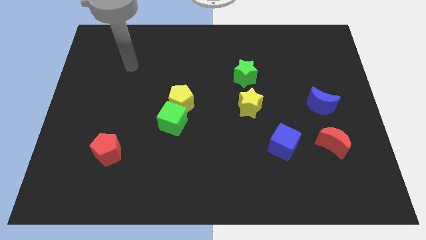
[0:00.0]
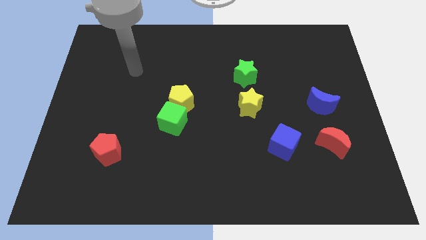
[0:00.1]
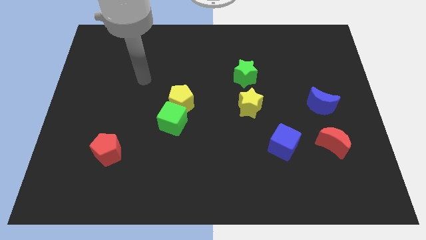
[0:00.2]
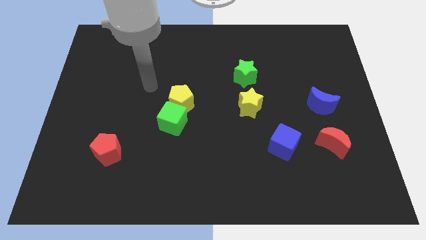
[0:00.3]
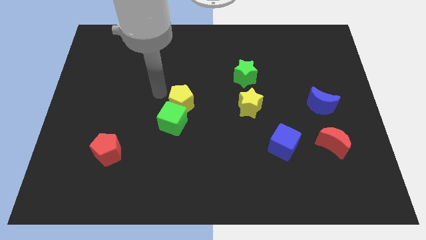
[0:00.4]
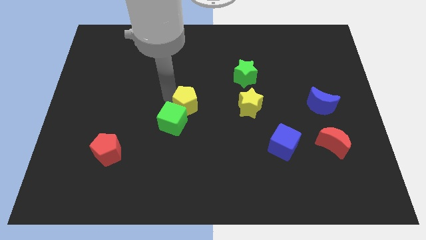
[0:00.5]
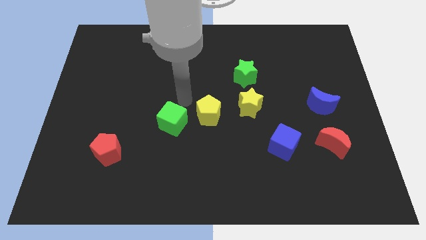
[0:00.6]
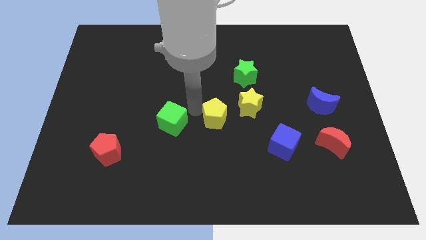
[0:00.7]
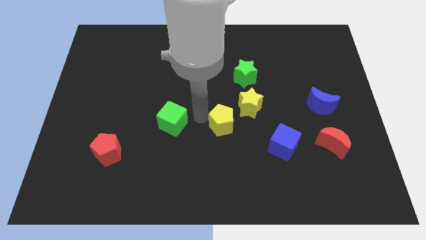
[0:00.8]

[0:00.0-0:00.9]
move the green cube away from the yellow pentagon

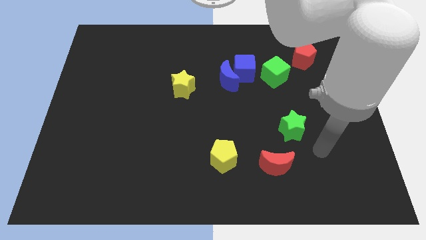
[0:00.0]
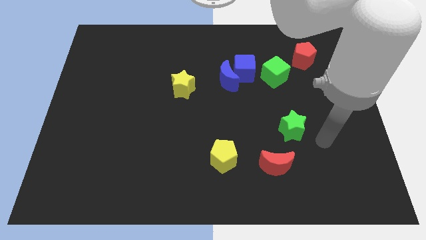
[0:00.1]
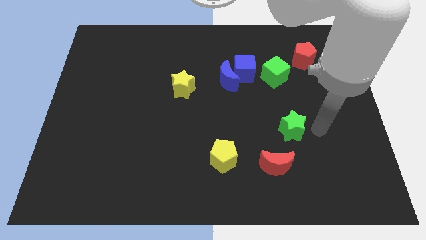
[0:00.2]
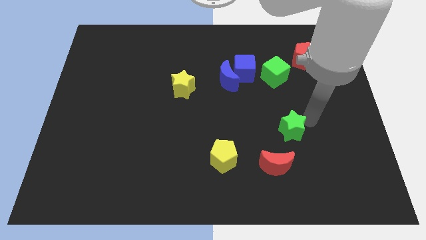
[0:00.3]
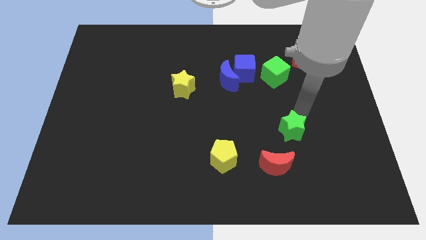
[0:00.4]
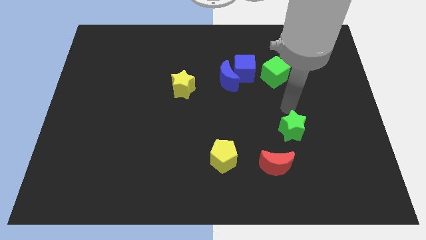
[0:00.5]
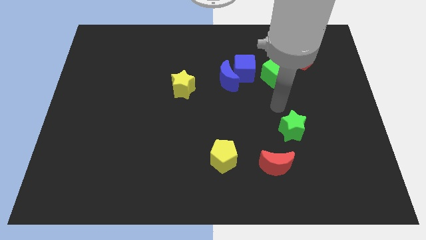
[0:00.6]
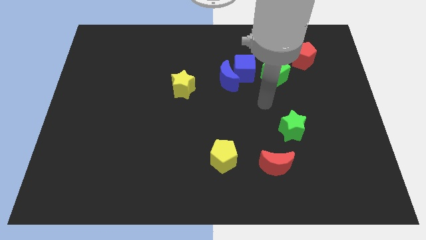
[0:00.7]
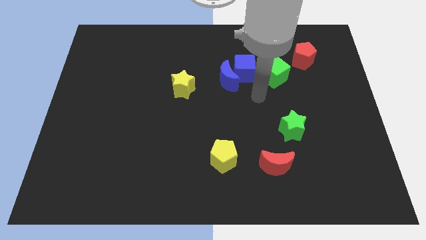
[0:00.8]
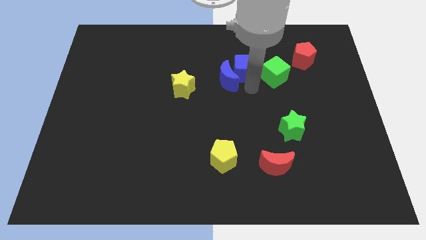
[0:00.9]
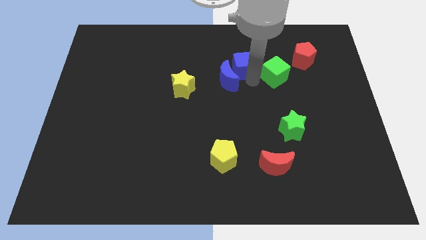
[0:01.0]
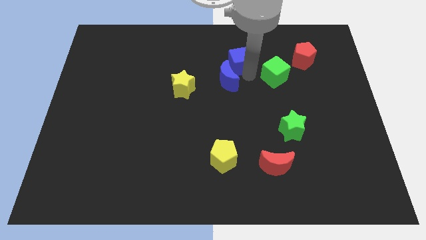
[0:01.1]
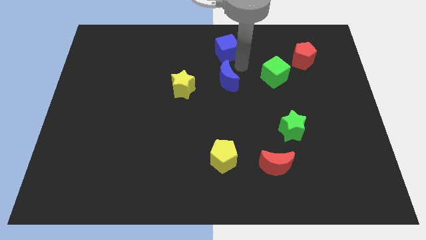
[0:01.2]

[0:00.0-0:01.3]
move the blue moon away from the blue cube

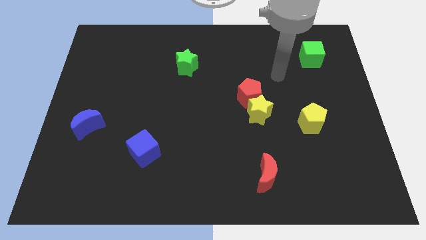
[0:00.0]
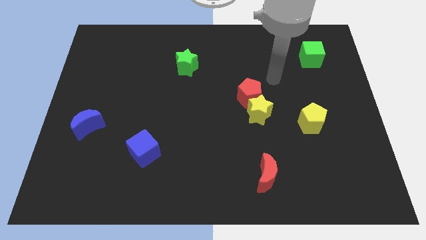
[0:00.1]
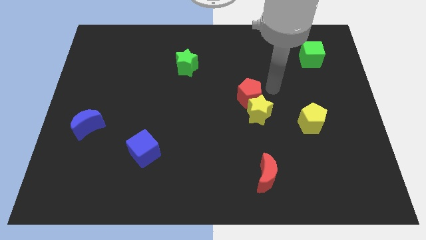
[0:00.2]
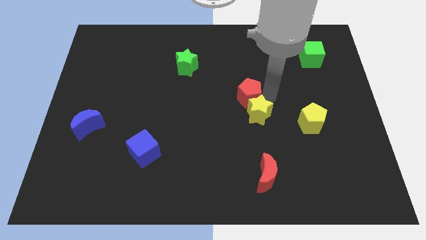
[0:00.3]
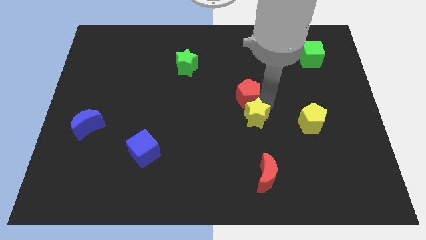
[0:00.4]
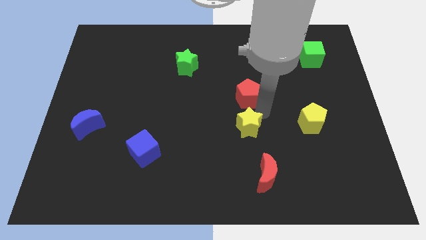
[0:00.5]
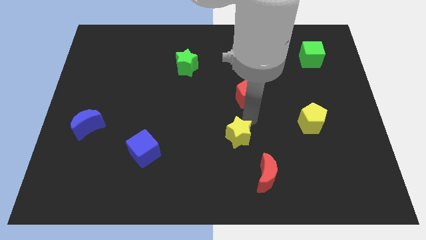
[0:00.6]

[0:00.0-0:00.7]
move the red pentagon away from the yellow star

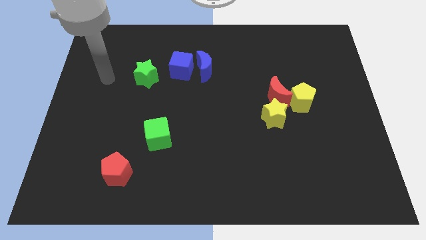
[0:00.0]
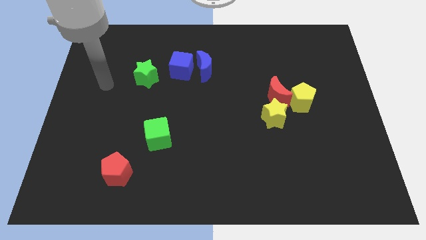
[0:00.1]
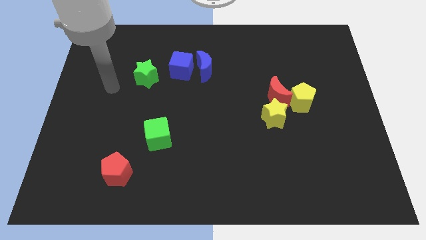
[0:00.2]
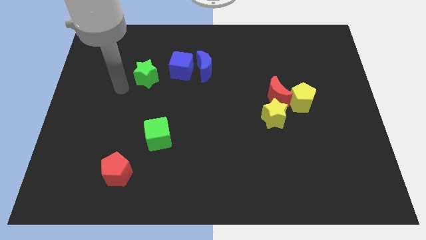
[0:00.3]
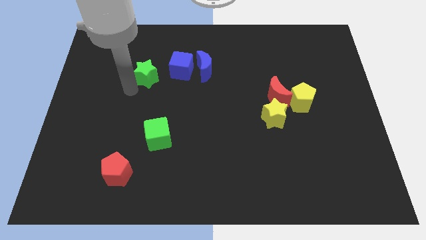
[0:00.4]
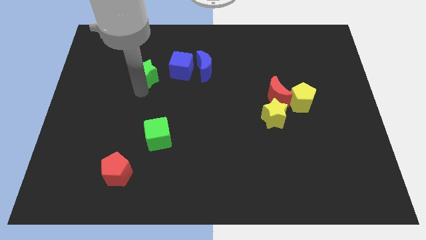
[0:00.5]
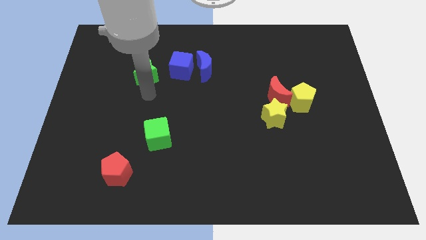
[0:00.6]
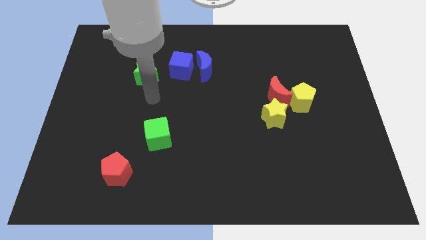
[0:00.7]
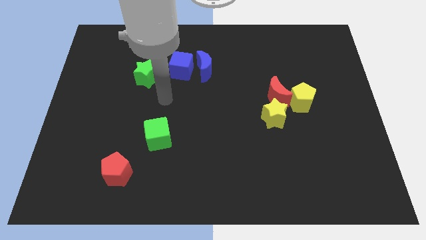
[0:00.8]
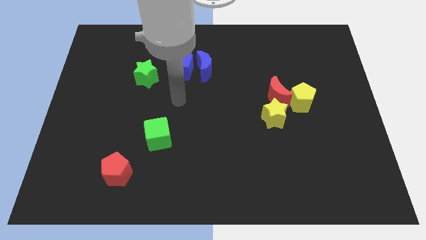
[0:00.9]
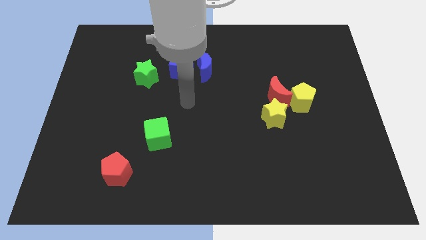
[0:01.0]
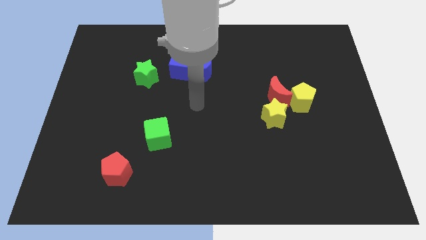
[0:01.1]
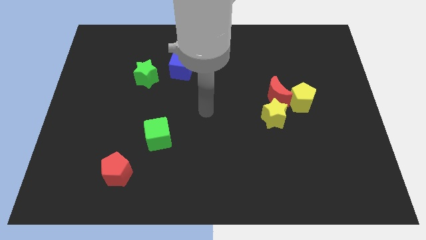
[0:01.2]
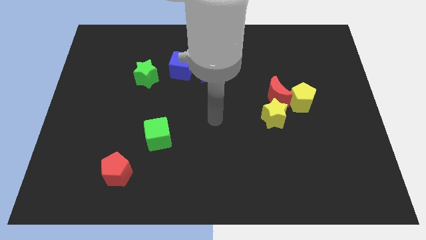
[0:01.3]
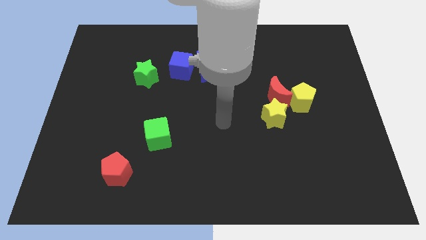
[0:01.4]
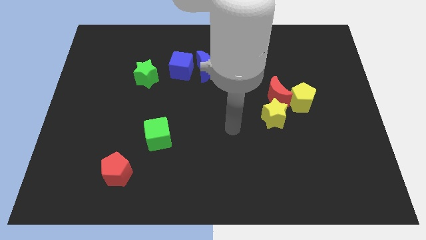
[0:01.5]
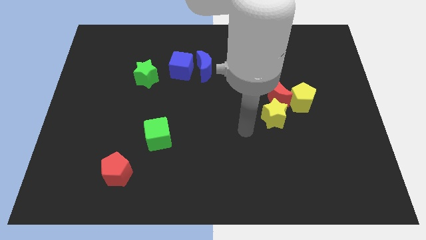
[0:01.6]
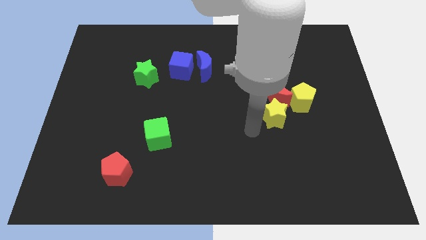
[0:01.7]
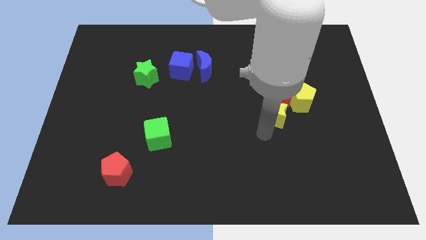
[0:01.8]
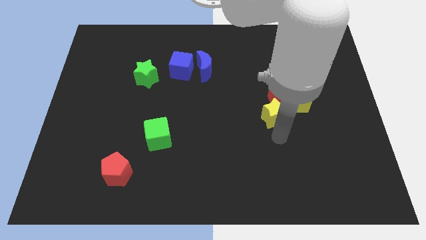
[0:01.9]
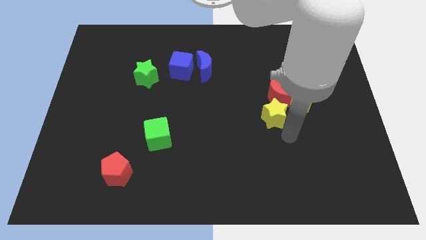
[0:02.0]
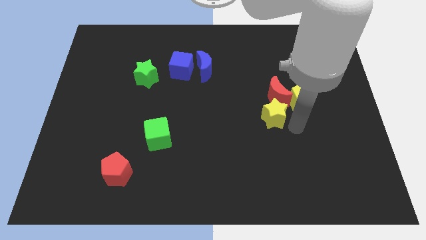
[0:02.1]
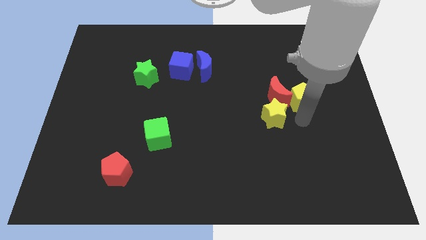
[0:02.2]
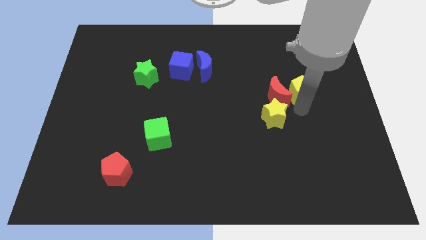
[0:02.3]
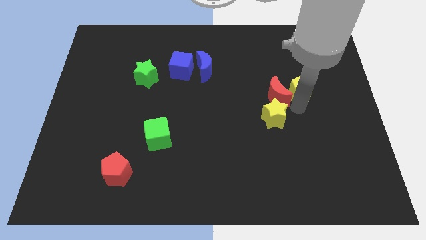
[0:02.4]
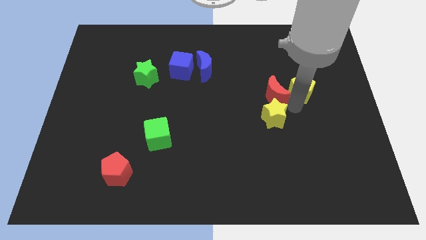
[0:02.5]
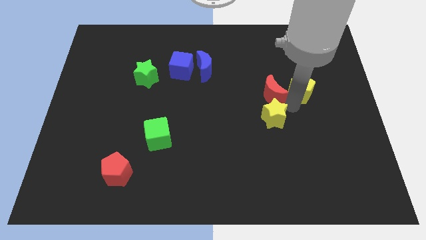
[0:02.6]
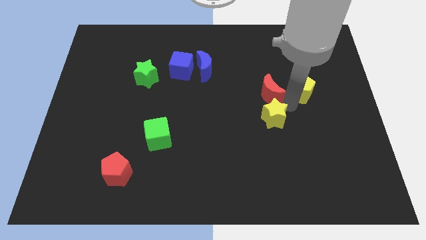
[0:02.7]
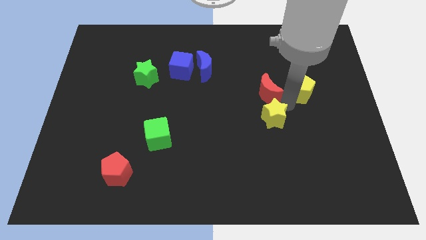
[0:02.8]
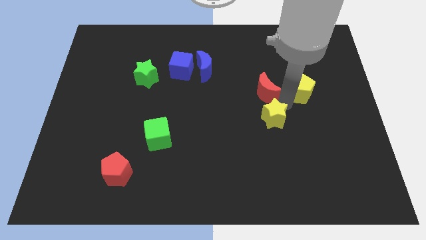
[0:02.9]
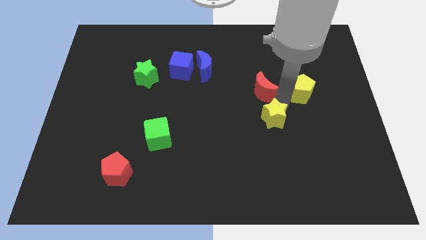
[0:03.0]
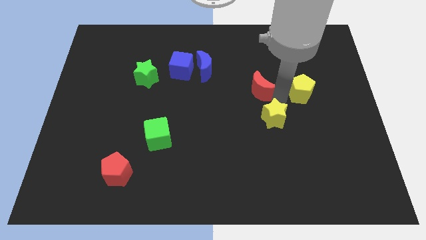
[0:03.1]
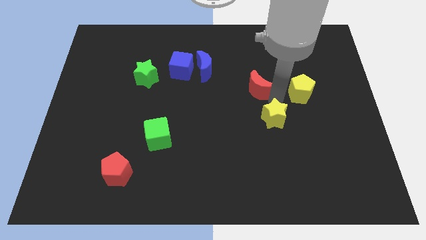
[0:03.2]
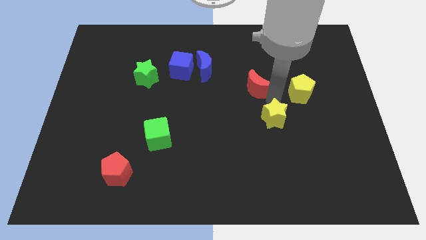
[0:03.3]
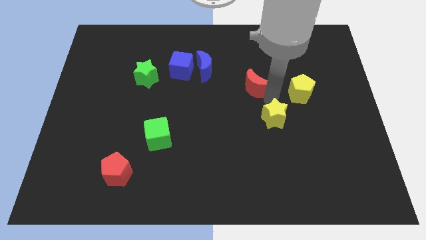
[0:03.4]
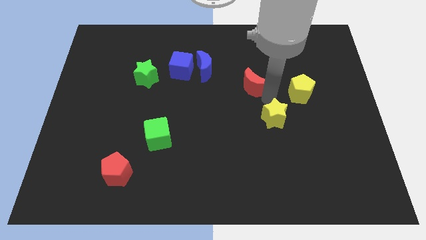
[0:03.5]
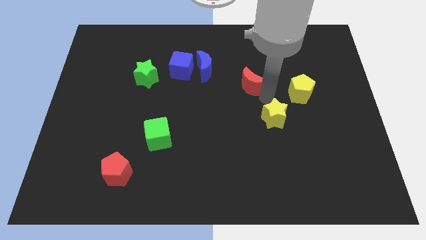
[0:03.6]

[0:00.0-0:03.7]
separate the red moon from the yellow pentagon and yellow star

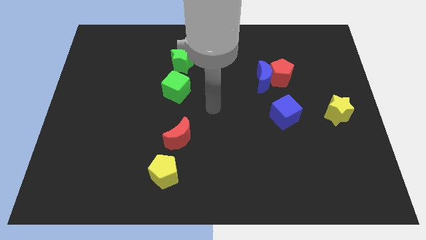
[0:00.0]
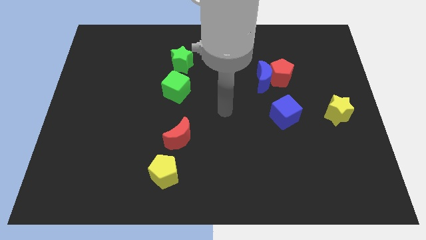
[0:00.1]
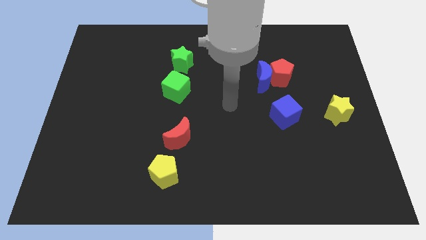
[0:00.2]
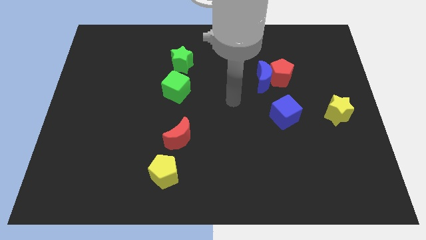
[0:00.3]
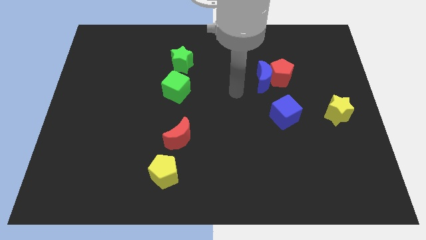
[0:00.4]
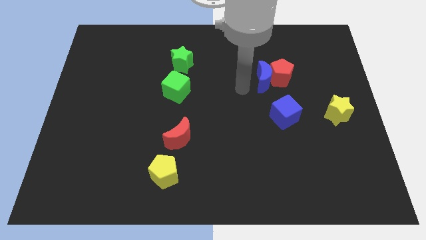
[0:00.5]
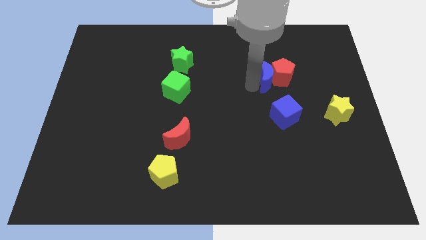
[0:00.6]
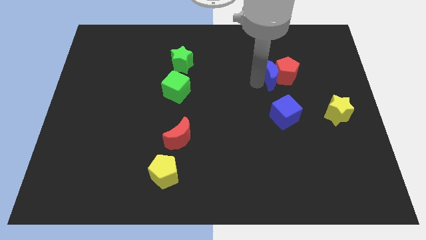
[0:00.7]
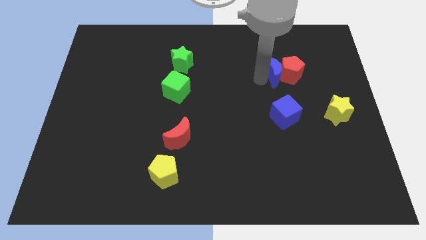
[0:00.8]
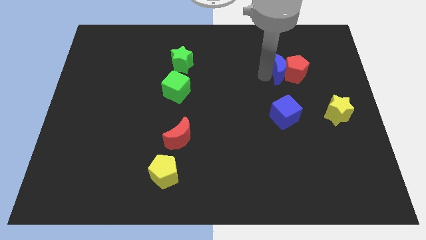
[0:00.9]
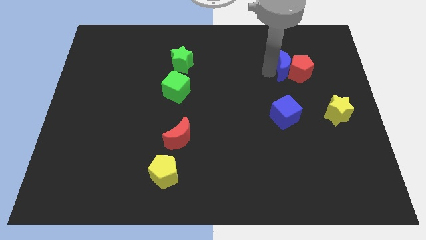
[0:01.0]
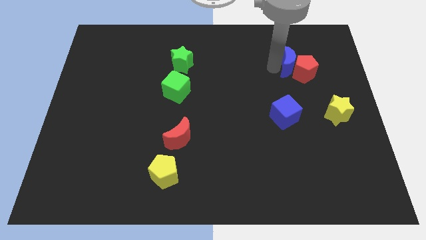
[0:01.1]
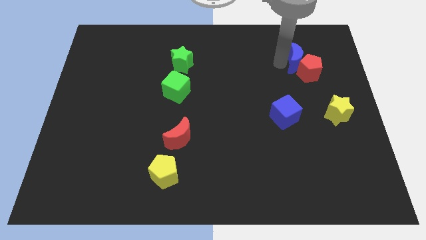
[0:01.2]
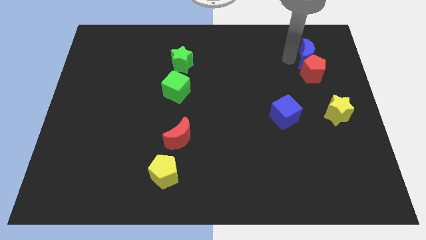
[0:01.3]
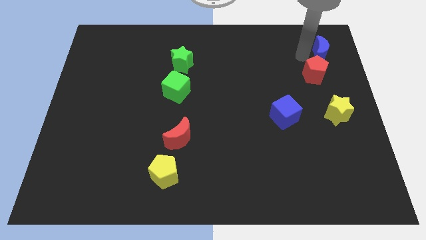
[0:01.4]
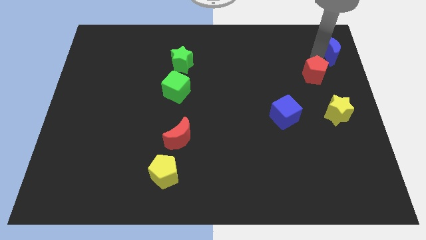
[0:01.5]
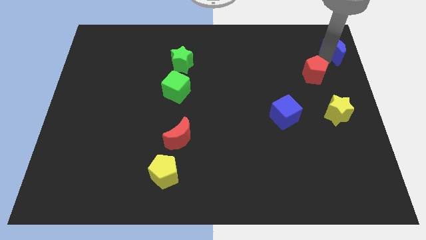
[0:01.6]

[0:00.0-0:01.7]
move the red pentagon away from the blue moon

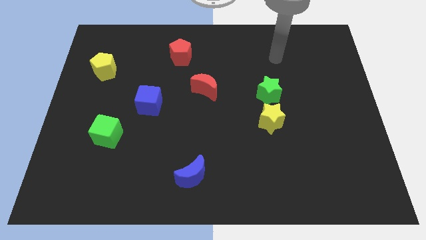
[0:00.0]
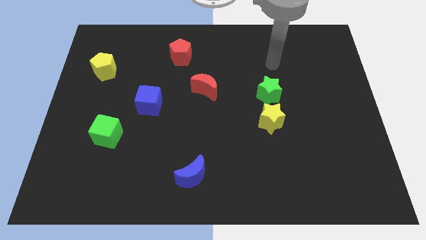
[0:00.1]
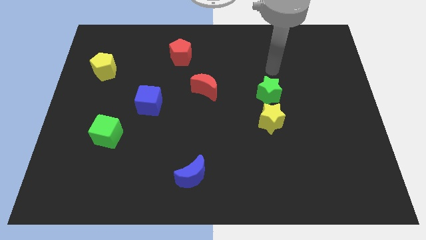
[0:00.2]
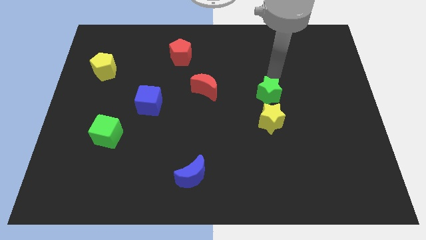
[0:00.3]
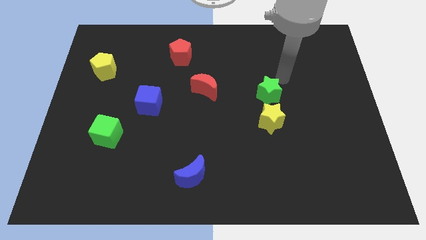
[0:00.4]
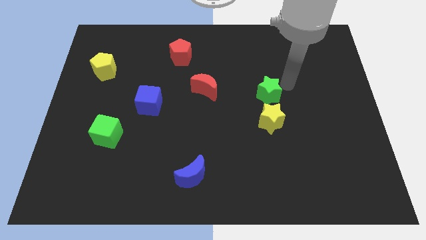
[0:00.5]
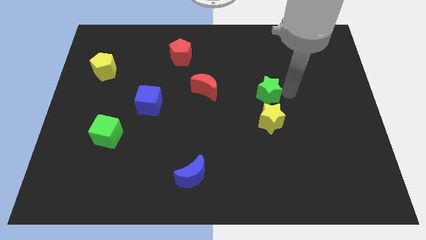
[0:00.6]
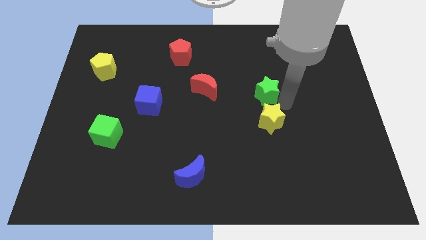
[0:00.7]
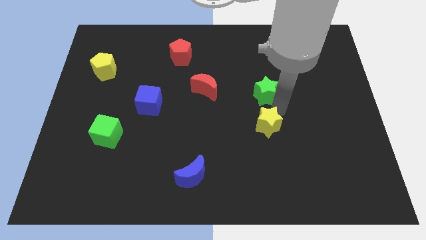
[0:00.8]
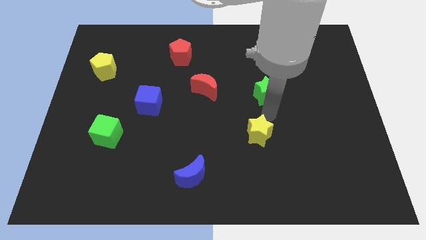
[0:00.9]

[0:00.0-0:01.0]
pull the green star apart from the yellow star
